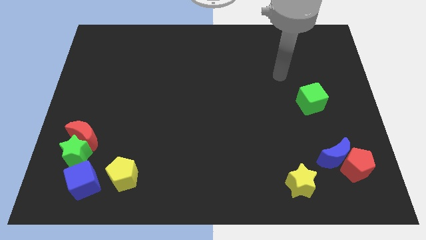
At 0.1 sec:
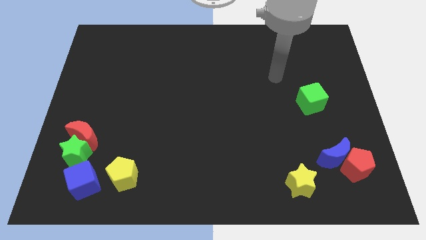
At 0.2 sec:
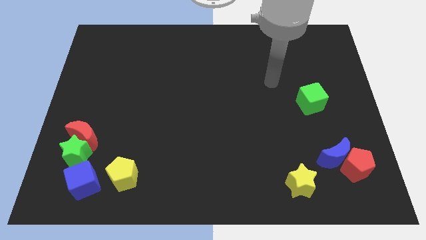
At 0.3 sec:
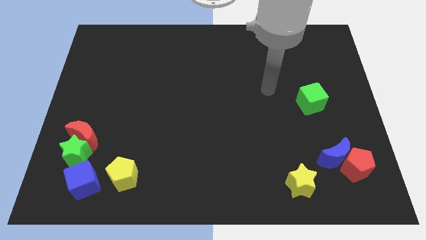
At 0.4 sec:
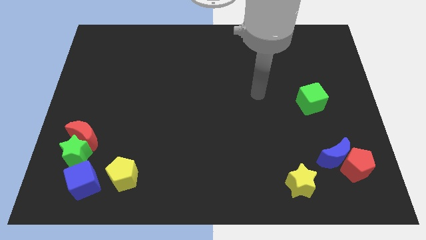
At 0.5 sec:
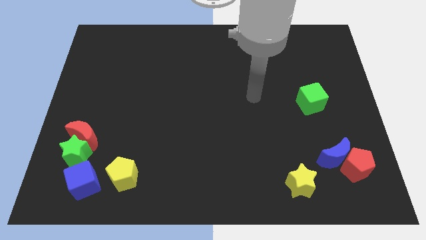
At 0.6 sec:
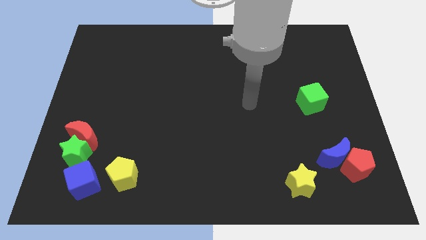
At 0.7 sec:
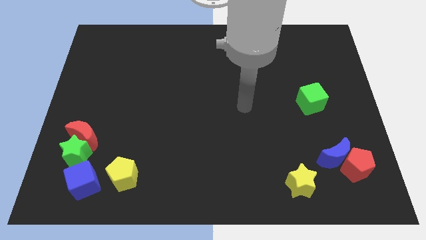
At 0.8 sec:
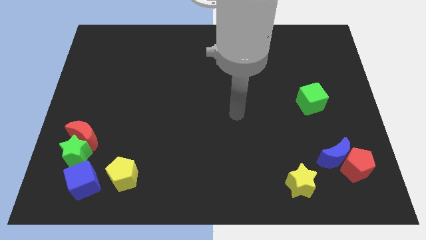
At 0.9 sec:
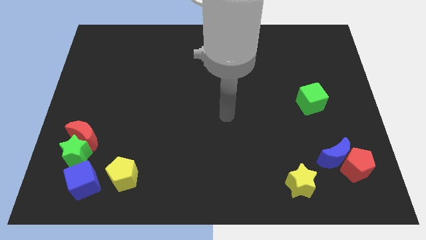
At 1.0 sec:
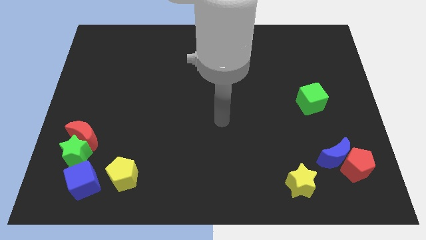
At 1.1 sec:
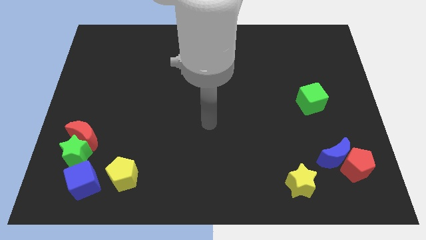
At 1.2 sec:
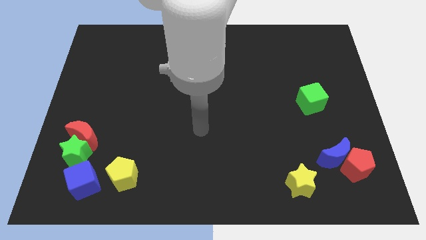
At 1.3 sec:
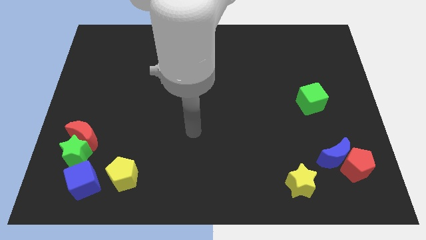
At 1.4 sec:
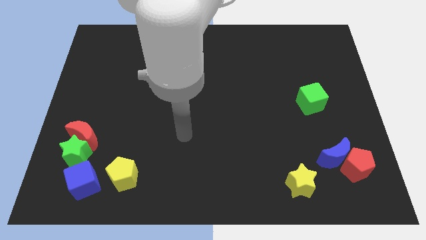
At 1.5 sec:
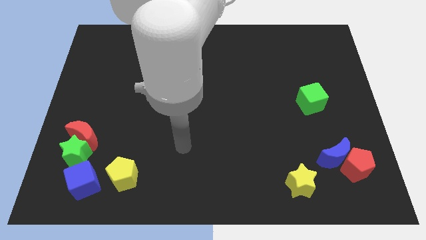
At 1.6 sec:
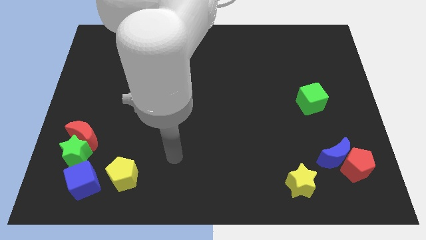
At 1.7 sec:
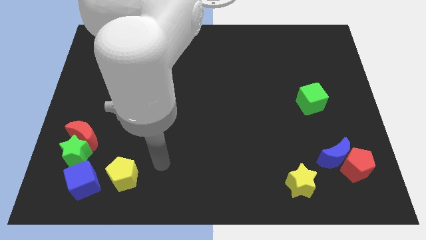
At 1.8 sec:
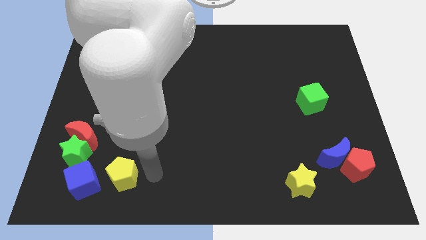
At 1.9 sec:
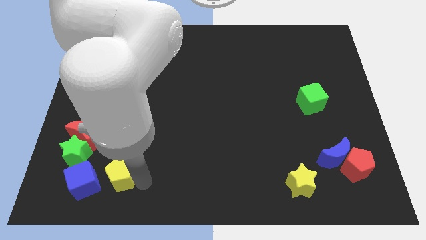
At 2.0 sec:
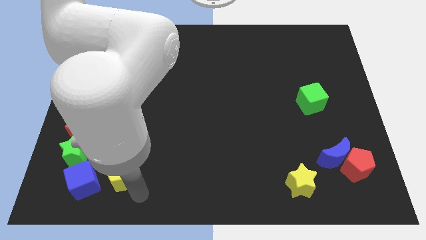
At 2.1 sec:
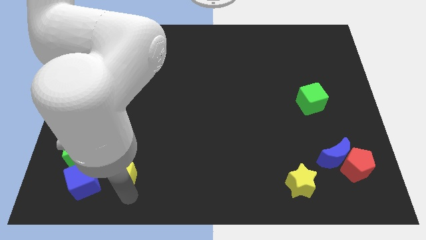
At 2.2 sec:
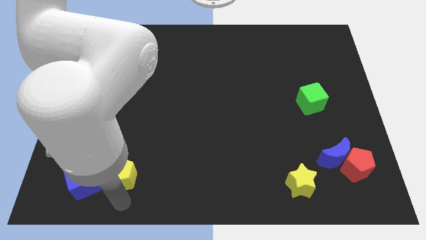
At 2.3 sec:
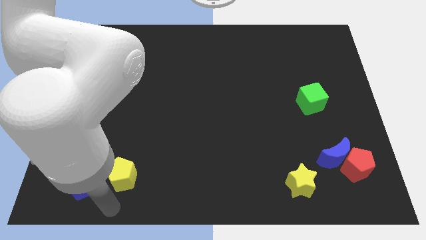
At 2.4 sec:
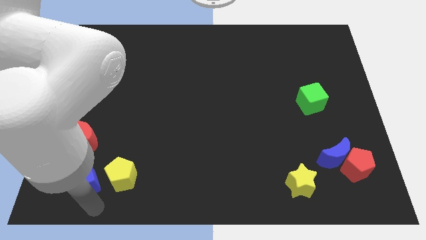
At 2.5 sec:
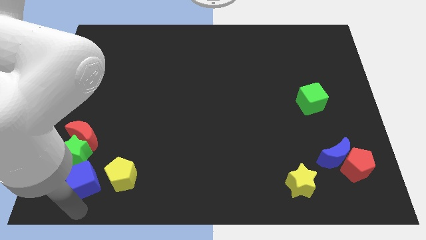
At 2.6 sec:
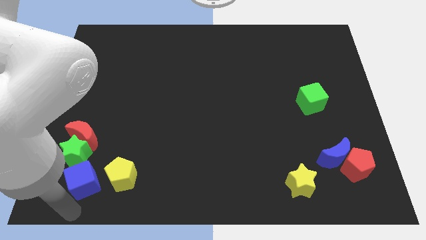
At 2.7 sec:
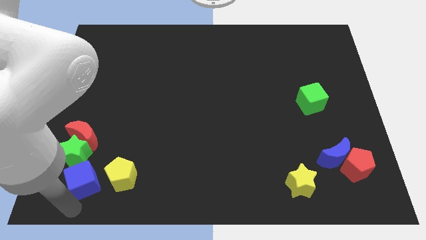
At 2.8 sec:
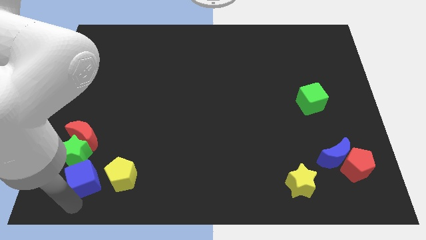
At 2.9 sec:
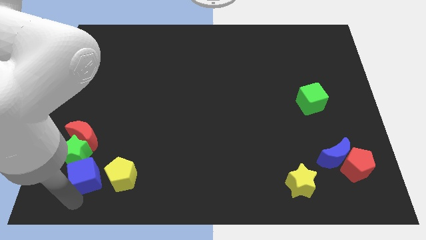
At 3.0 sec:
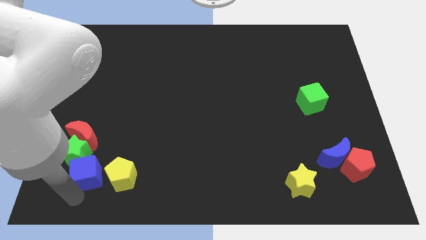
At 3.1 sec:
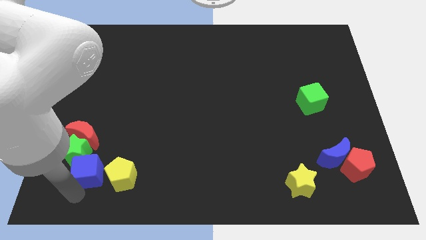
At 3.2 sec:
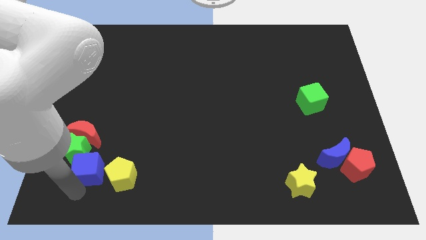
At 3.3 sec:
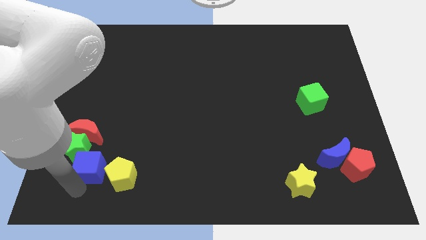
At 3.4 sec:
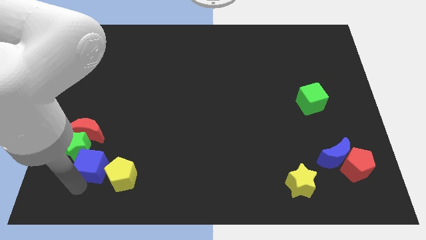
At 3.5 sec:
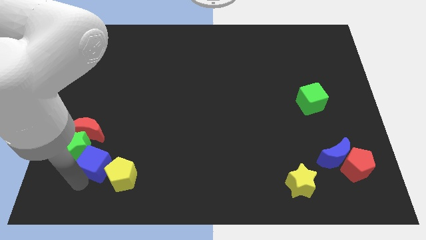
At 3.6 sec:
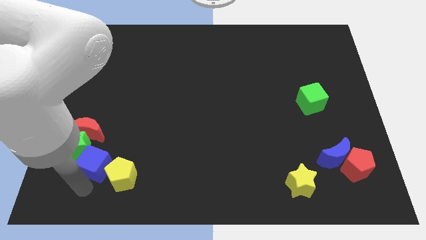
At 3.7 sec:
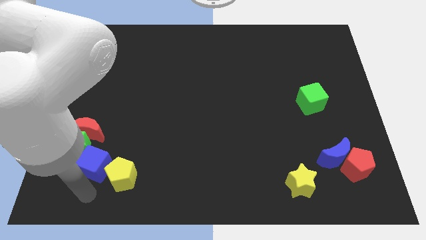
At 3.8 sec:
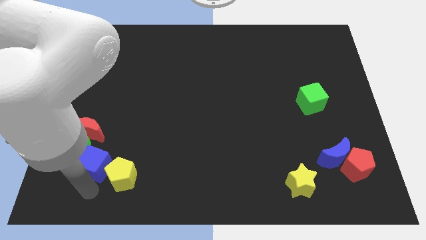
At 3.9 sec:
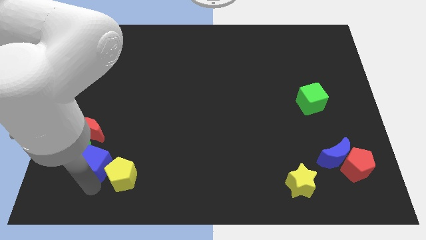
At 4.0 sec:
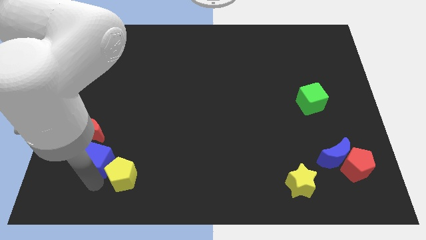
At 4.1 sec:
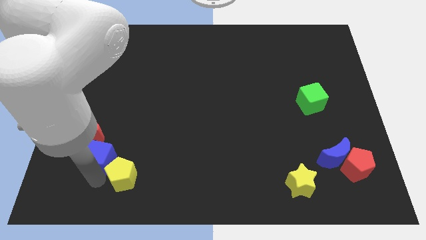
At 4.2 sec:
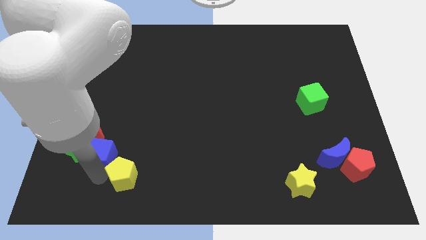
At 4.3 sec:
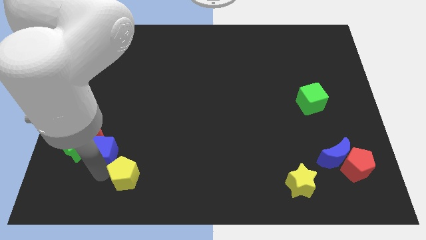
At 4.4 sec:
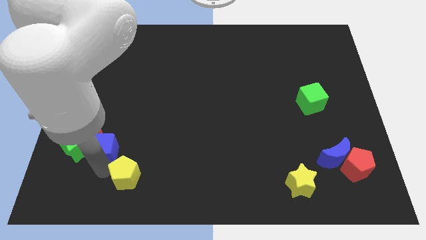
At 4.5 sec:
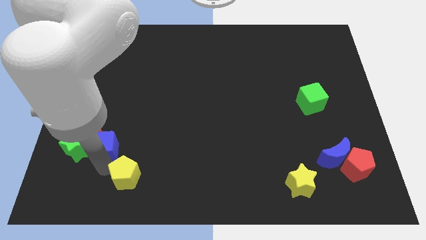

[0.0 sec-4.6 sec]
move the blue cube close to the red moon

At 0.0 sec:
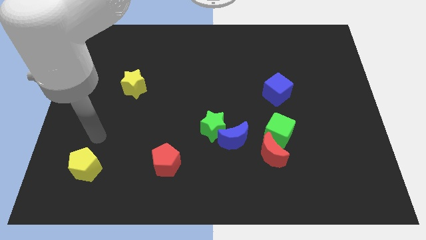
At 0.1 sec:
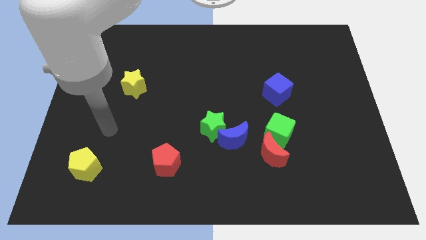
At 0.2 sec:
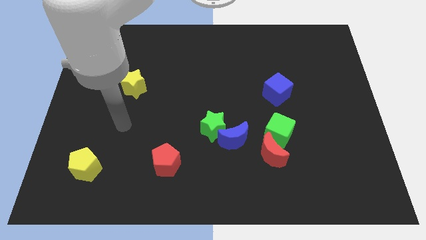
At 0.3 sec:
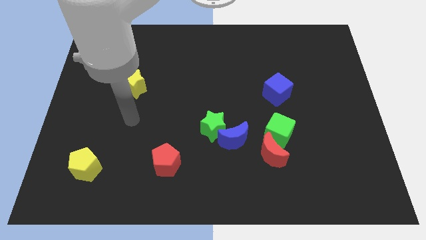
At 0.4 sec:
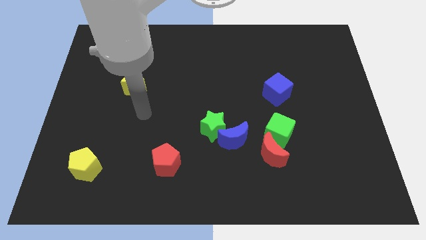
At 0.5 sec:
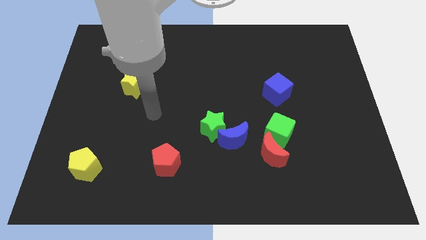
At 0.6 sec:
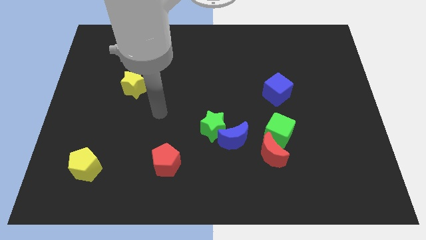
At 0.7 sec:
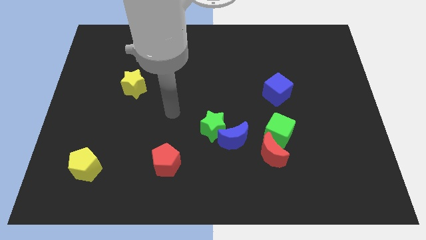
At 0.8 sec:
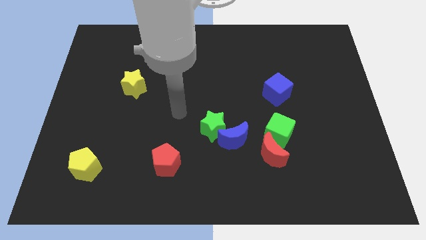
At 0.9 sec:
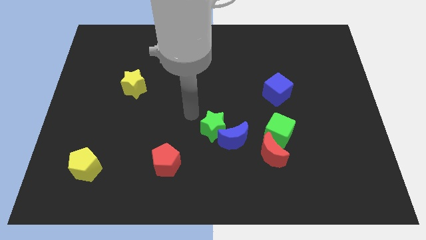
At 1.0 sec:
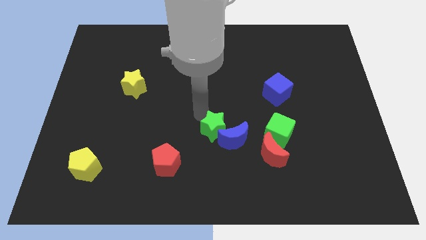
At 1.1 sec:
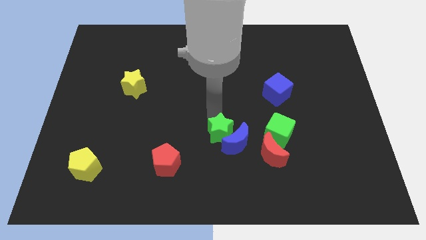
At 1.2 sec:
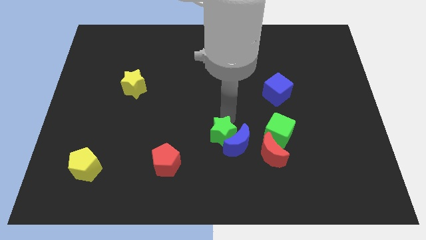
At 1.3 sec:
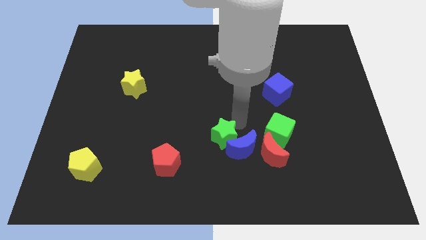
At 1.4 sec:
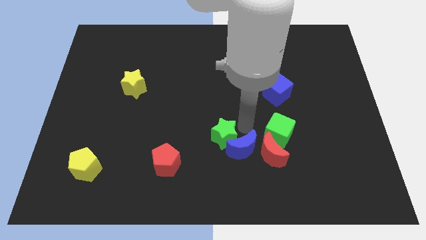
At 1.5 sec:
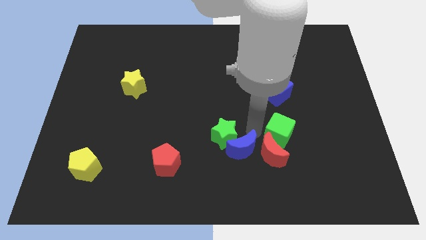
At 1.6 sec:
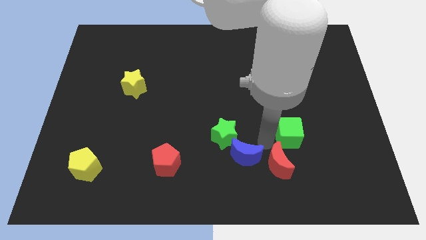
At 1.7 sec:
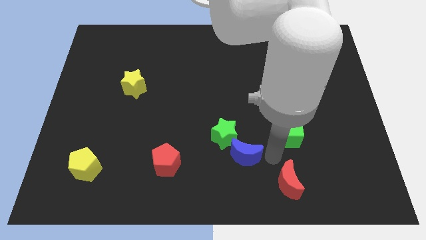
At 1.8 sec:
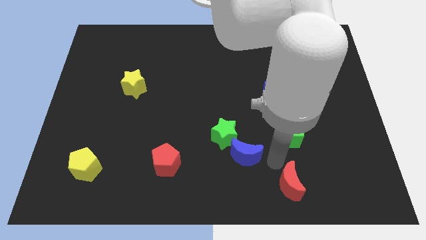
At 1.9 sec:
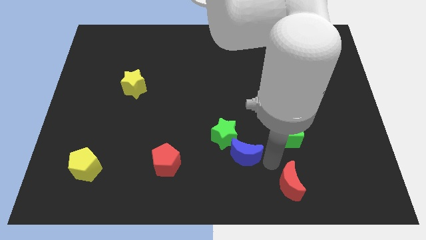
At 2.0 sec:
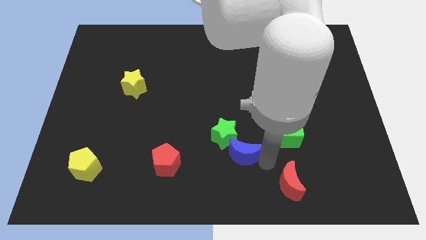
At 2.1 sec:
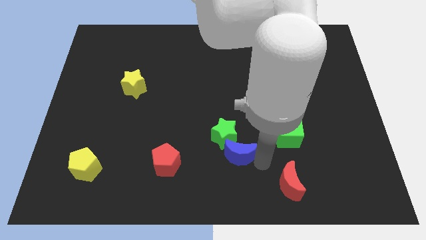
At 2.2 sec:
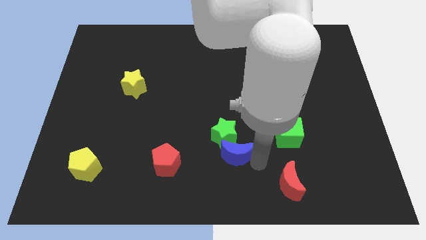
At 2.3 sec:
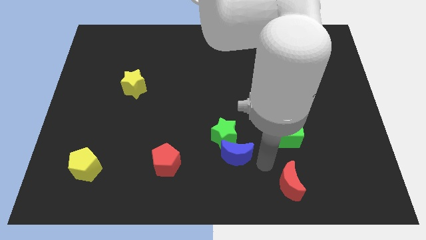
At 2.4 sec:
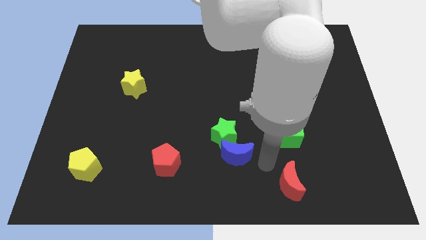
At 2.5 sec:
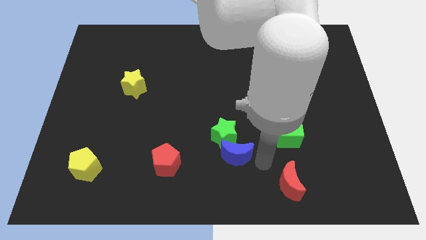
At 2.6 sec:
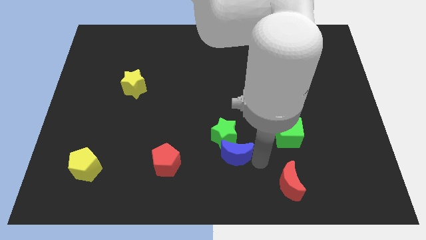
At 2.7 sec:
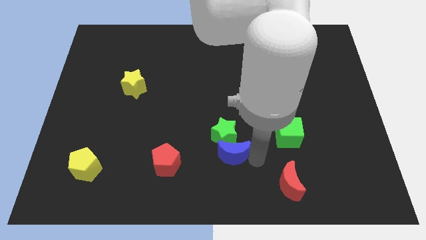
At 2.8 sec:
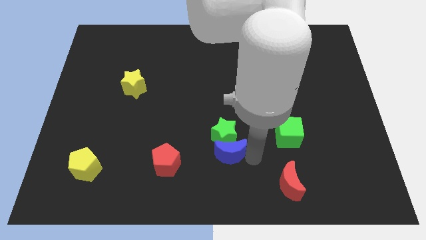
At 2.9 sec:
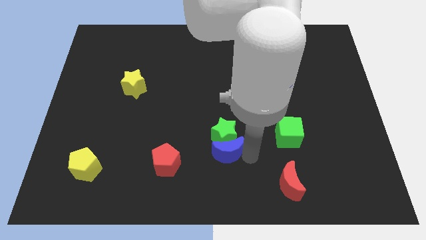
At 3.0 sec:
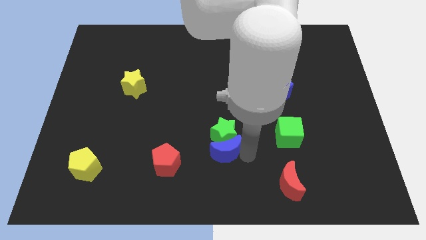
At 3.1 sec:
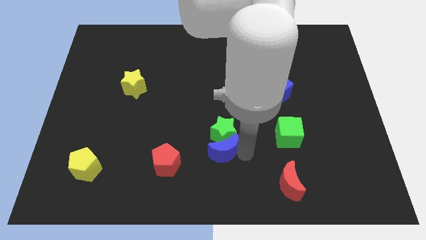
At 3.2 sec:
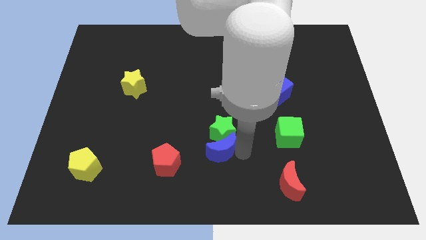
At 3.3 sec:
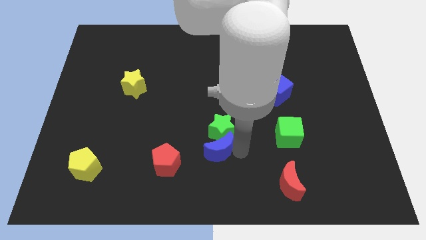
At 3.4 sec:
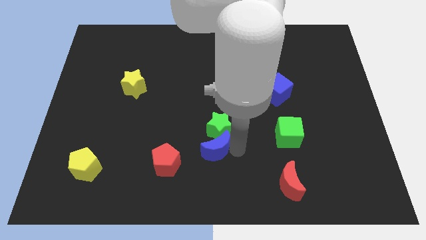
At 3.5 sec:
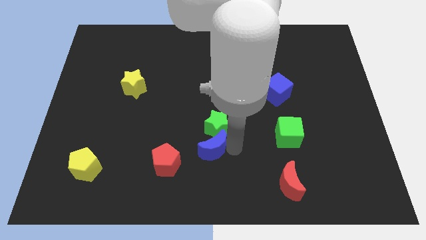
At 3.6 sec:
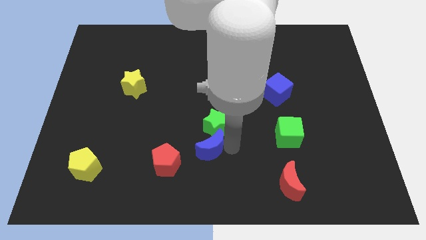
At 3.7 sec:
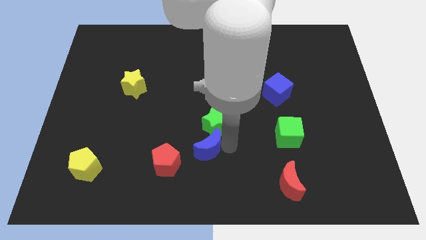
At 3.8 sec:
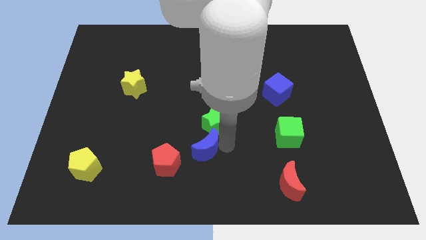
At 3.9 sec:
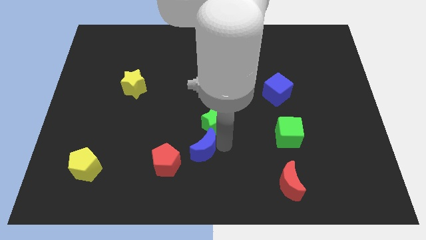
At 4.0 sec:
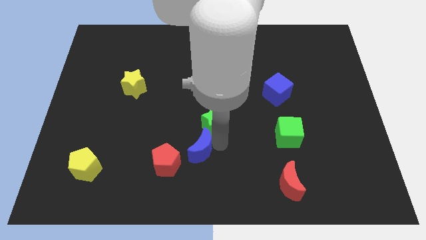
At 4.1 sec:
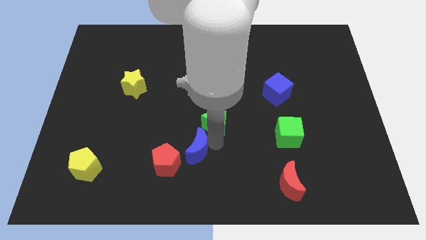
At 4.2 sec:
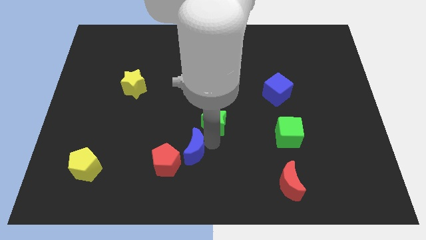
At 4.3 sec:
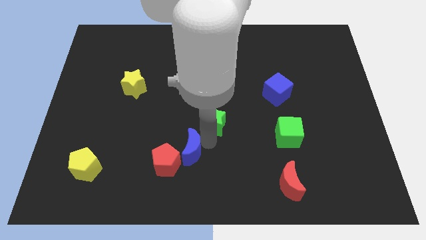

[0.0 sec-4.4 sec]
put the blue moon towards the red pentagon
